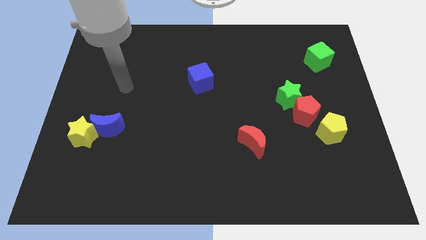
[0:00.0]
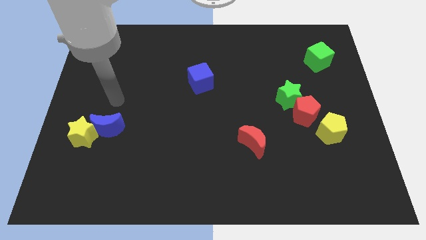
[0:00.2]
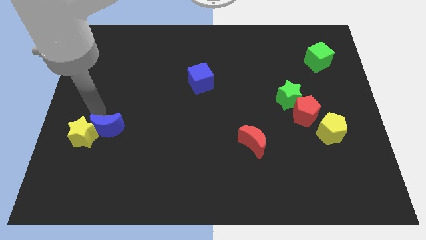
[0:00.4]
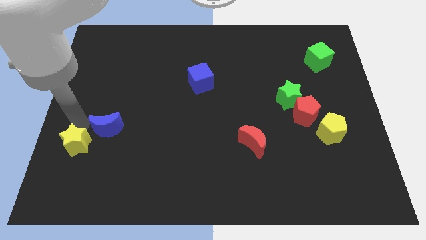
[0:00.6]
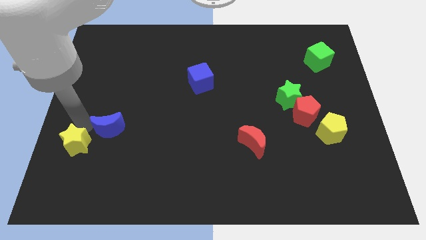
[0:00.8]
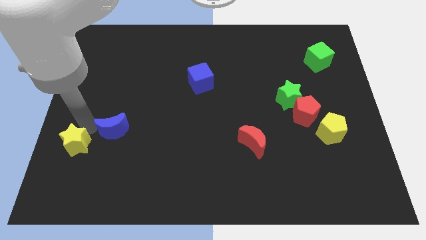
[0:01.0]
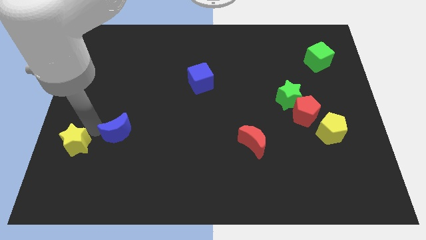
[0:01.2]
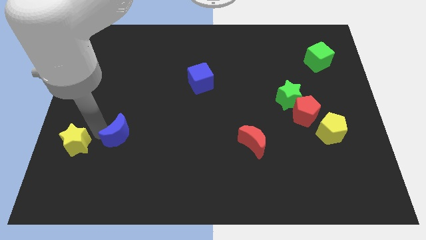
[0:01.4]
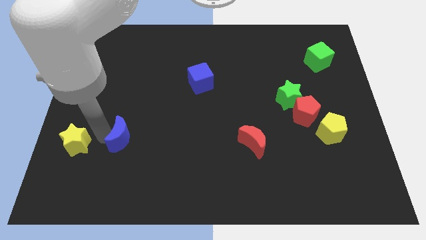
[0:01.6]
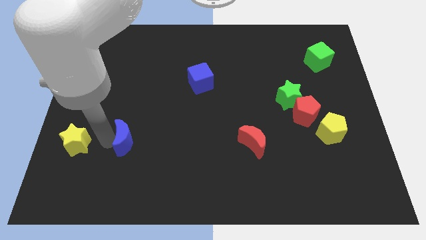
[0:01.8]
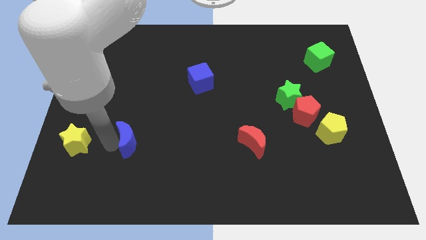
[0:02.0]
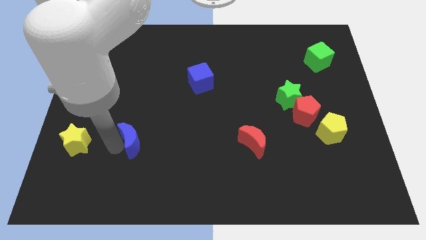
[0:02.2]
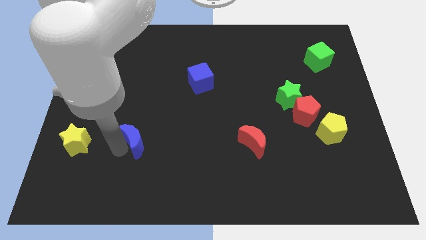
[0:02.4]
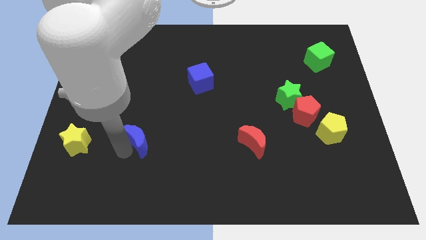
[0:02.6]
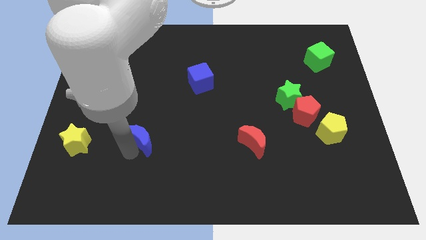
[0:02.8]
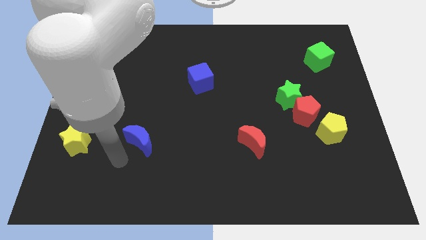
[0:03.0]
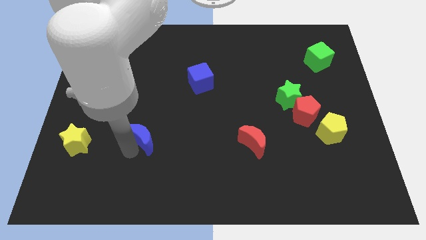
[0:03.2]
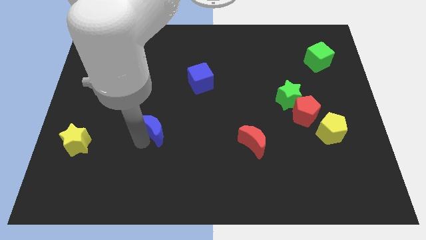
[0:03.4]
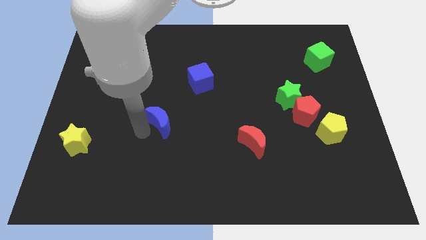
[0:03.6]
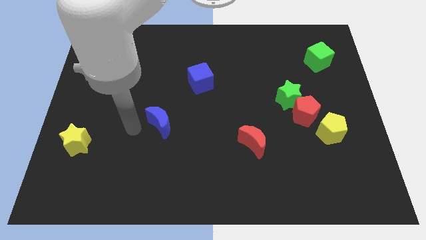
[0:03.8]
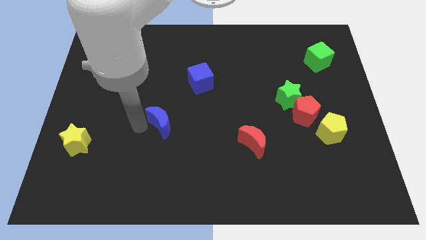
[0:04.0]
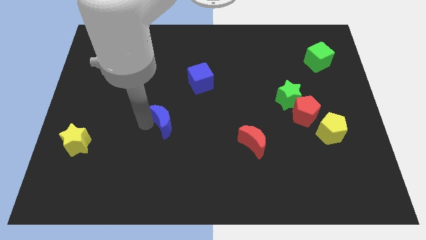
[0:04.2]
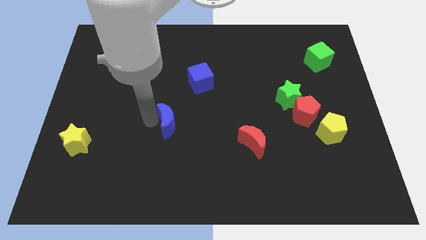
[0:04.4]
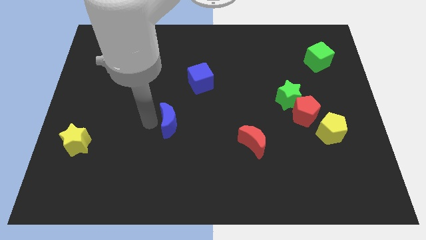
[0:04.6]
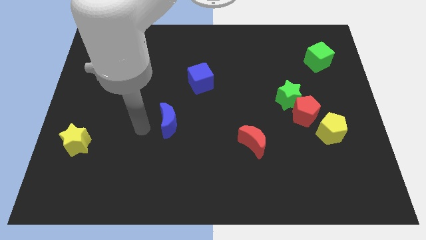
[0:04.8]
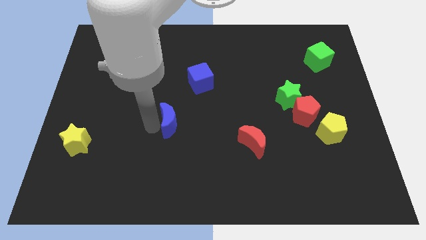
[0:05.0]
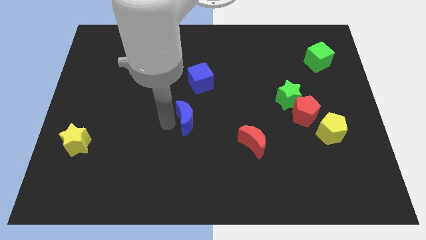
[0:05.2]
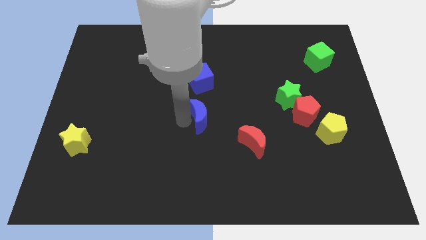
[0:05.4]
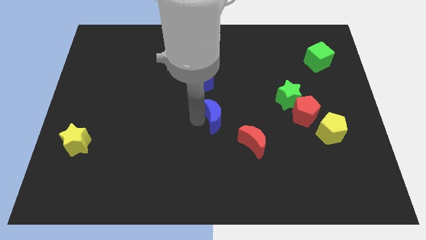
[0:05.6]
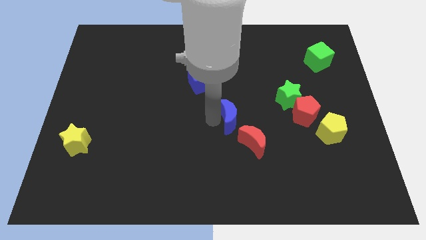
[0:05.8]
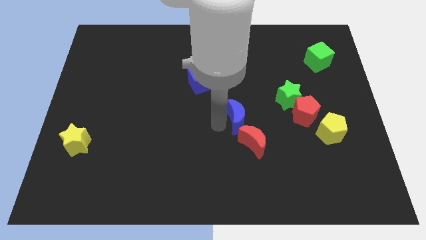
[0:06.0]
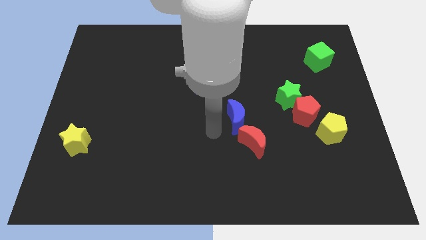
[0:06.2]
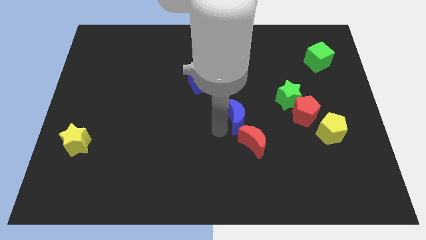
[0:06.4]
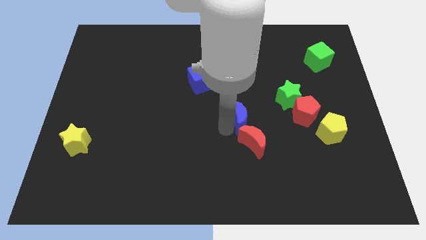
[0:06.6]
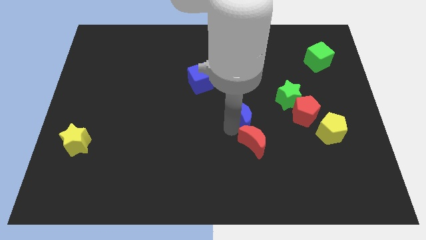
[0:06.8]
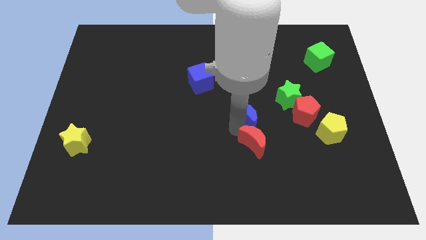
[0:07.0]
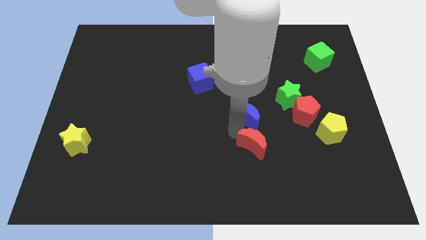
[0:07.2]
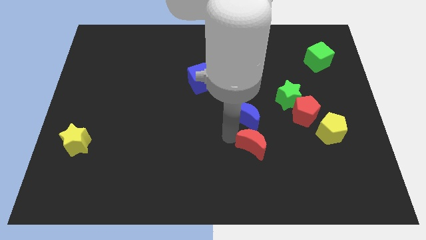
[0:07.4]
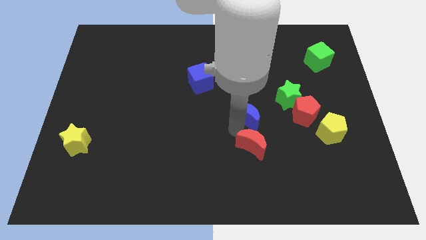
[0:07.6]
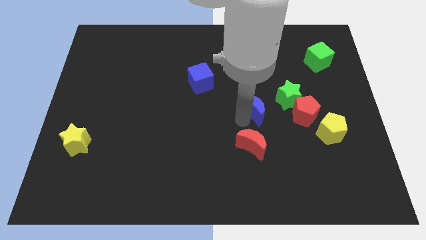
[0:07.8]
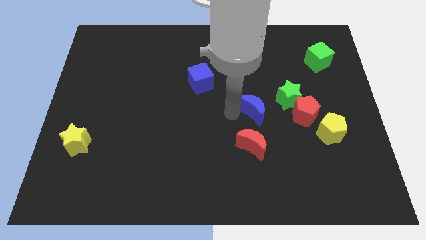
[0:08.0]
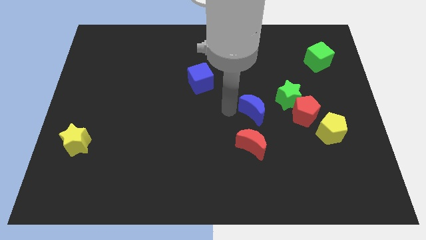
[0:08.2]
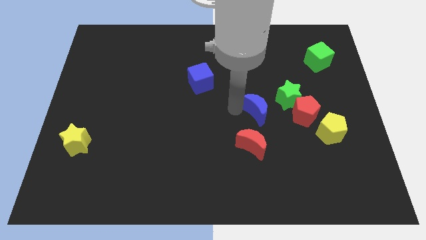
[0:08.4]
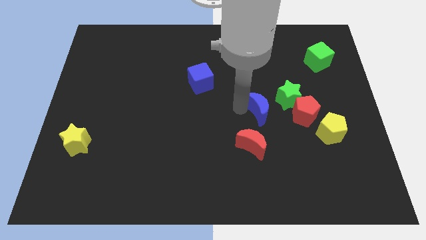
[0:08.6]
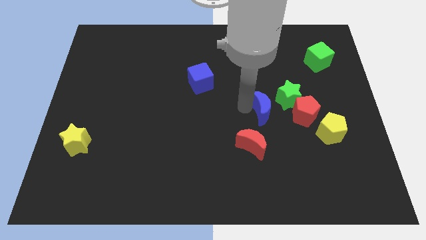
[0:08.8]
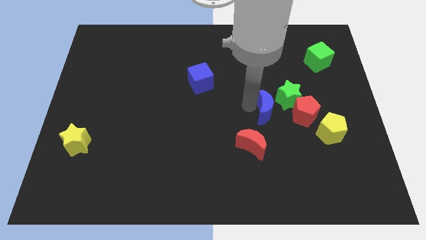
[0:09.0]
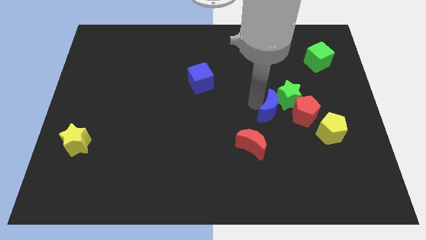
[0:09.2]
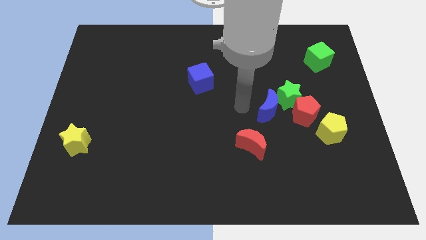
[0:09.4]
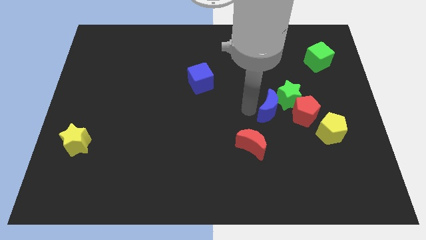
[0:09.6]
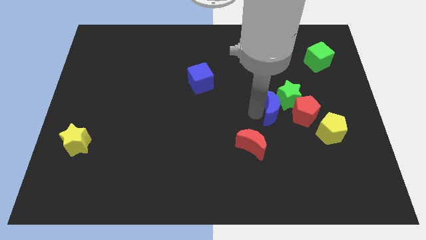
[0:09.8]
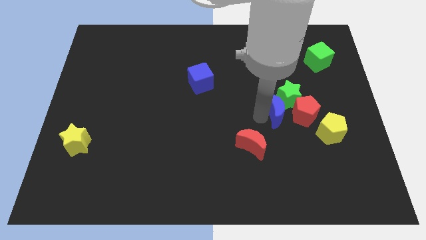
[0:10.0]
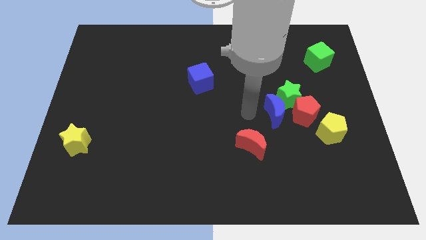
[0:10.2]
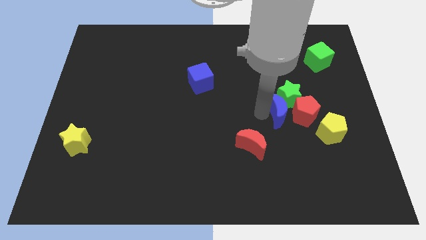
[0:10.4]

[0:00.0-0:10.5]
push the blue moon close to the red pentagon

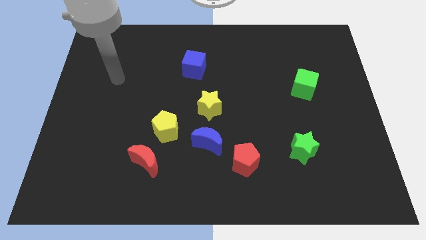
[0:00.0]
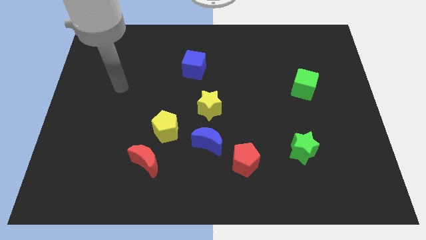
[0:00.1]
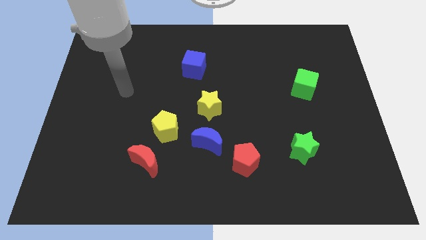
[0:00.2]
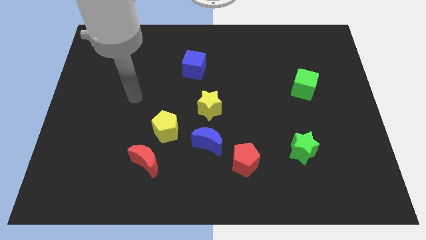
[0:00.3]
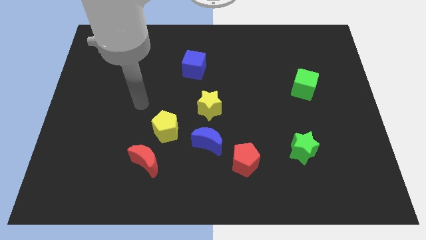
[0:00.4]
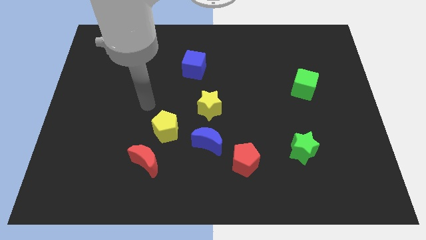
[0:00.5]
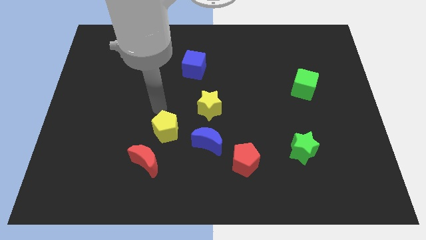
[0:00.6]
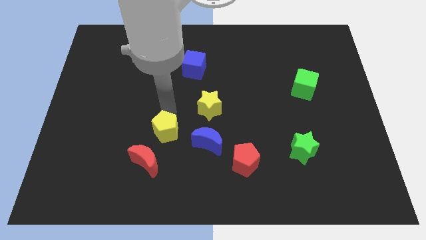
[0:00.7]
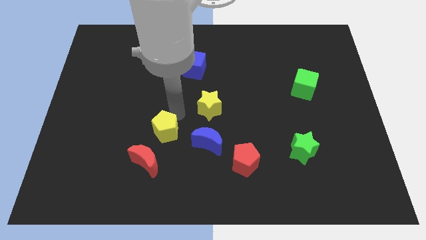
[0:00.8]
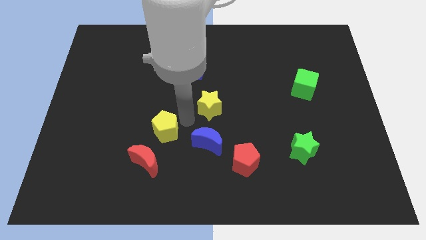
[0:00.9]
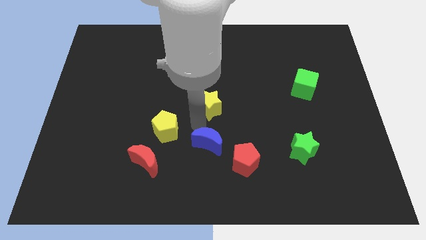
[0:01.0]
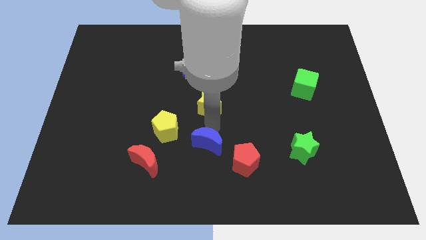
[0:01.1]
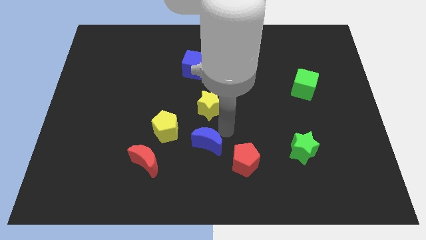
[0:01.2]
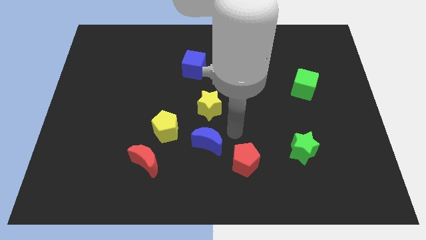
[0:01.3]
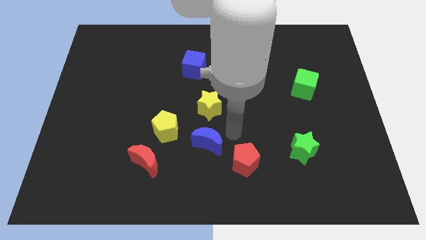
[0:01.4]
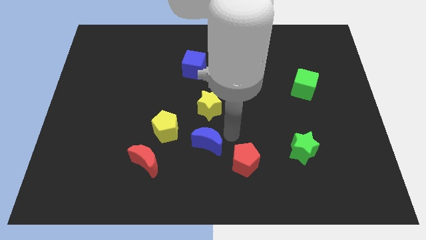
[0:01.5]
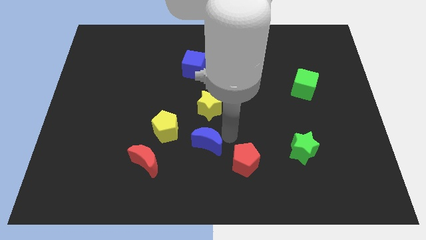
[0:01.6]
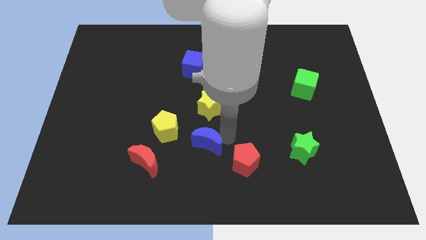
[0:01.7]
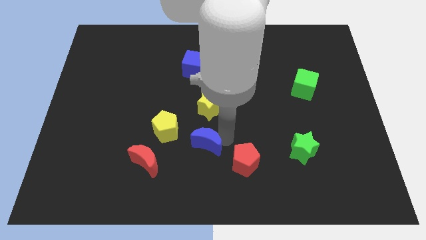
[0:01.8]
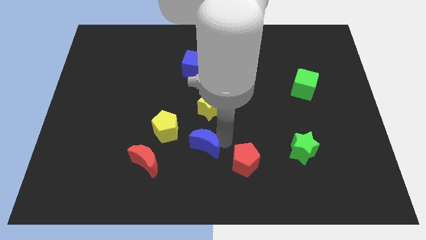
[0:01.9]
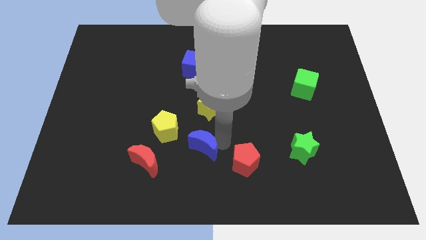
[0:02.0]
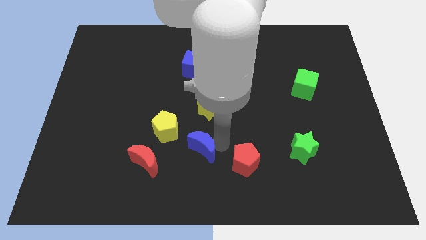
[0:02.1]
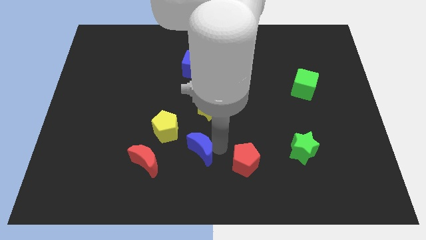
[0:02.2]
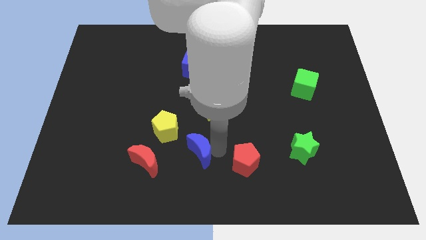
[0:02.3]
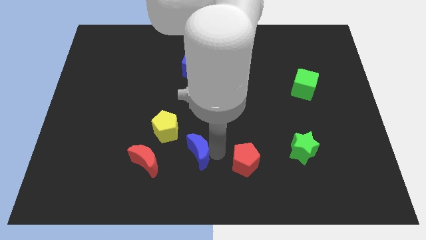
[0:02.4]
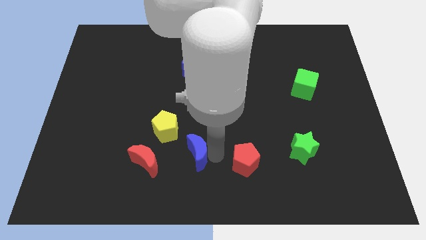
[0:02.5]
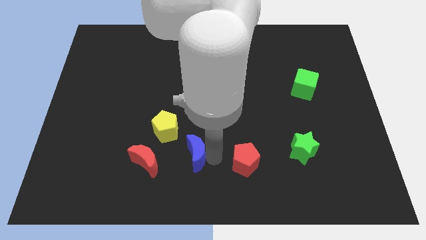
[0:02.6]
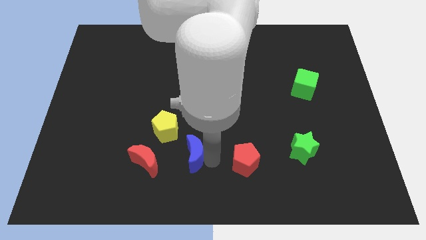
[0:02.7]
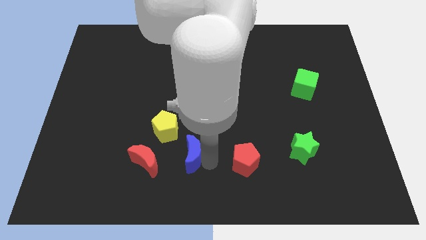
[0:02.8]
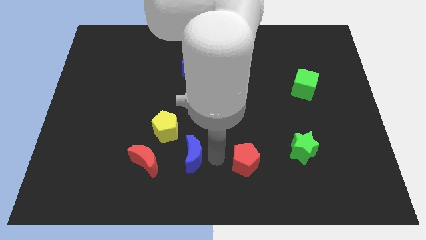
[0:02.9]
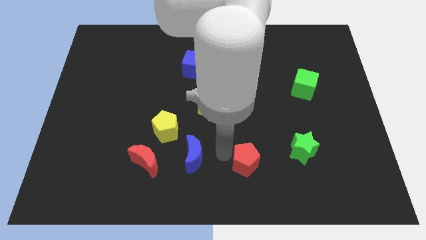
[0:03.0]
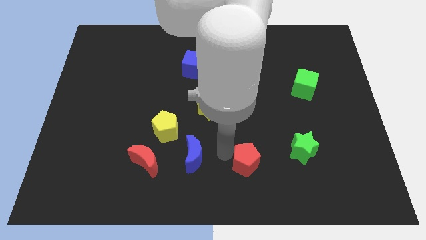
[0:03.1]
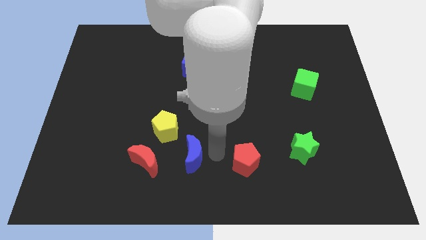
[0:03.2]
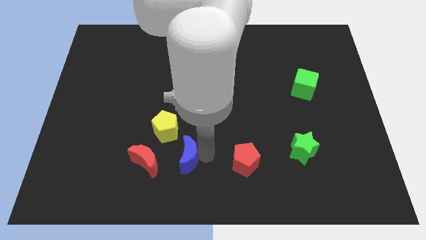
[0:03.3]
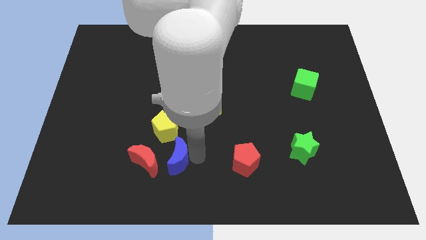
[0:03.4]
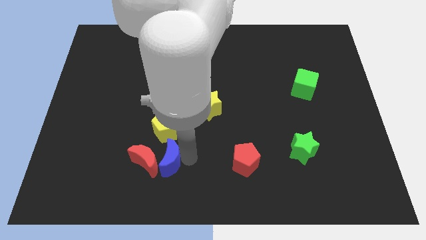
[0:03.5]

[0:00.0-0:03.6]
put the blue moon close to the red moon
